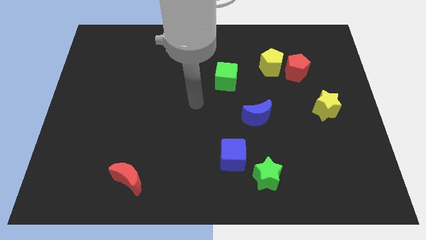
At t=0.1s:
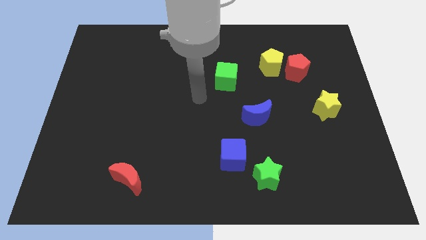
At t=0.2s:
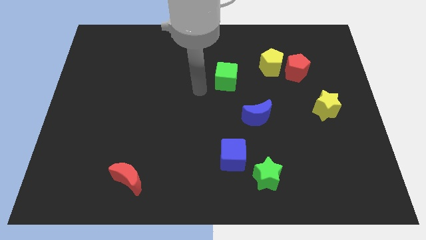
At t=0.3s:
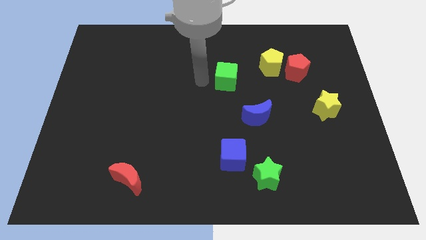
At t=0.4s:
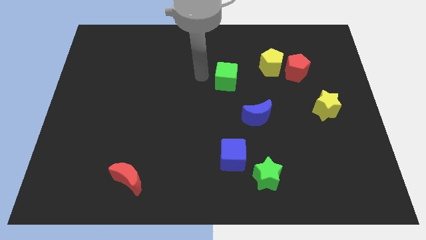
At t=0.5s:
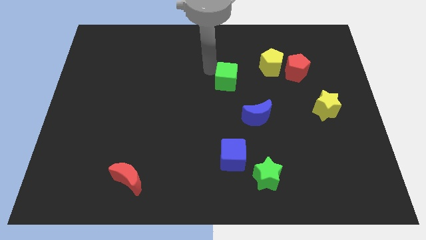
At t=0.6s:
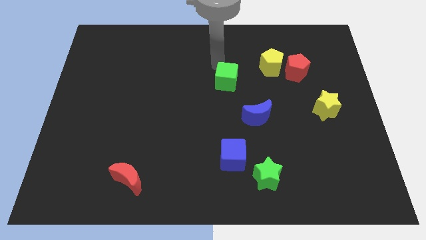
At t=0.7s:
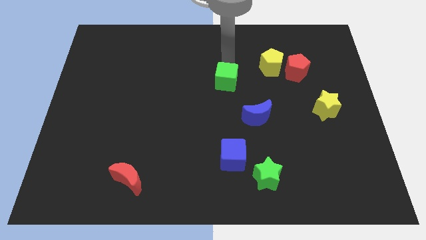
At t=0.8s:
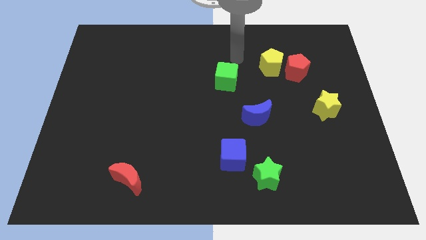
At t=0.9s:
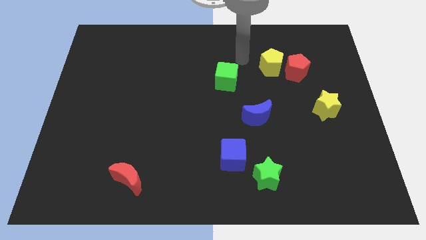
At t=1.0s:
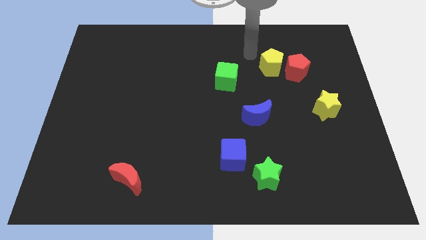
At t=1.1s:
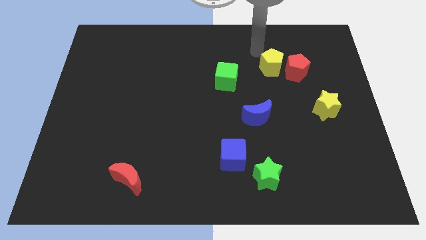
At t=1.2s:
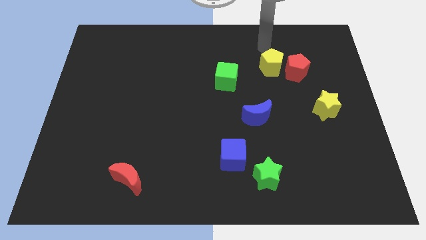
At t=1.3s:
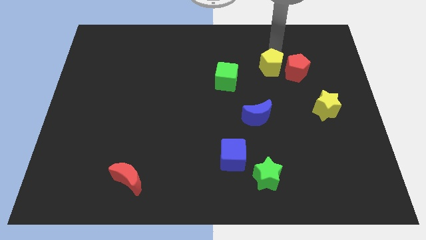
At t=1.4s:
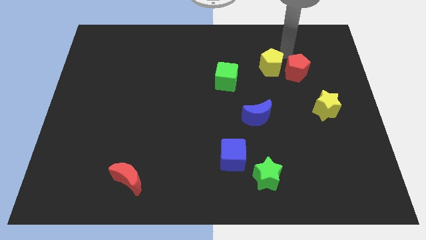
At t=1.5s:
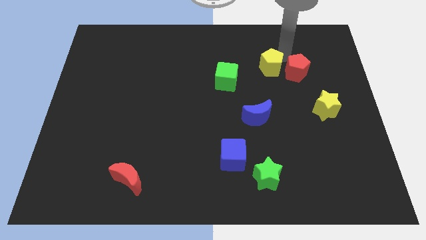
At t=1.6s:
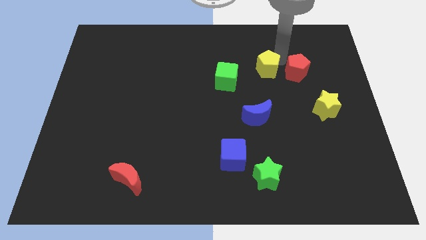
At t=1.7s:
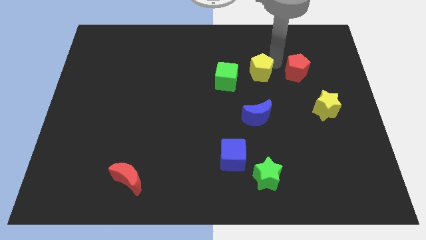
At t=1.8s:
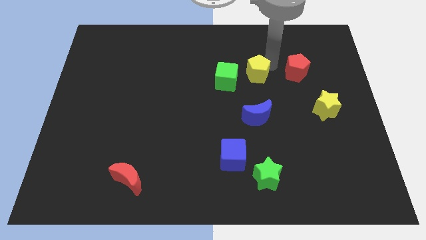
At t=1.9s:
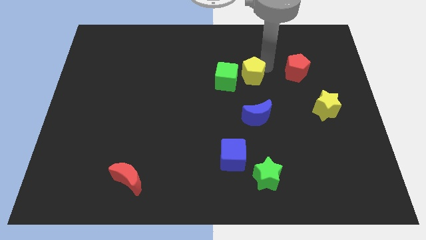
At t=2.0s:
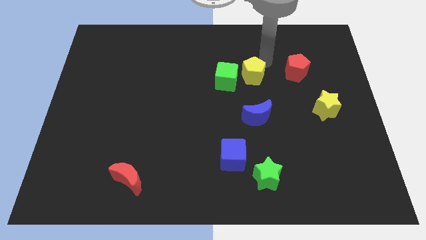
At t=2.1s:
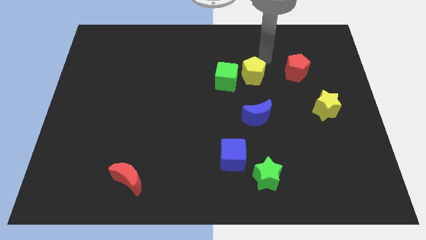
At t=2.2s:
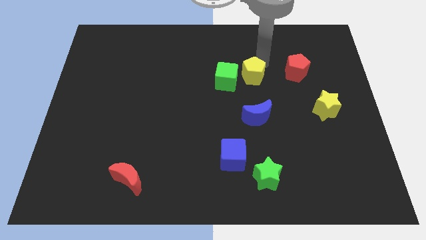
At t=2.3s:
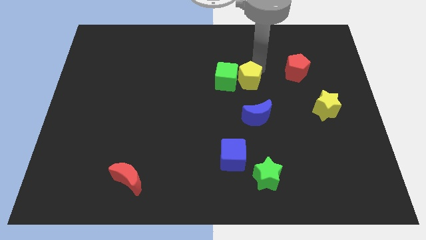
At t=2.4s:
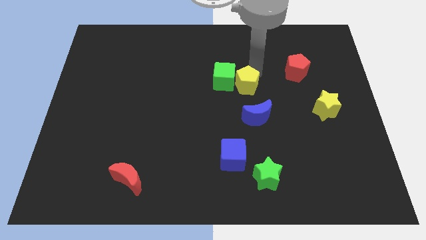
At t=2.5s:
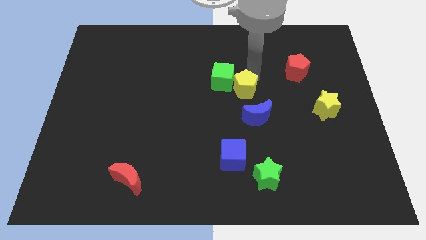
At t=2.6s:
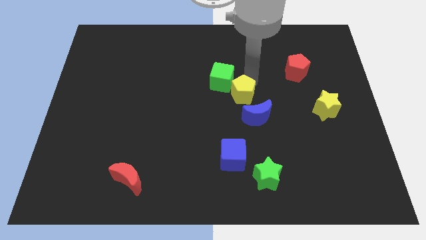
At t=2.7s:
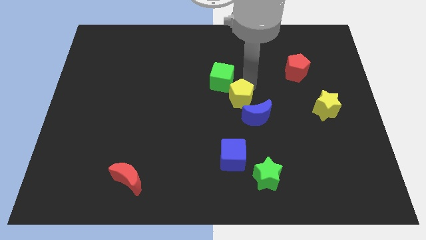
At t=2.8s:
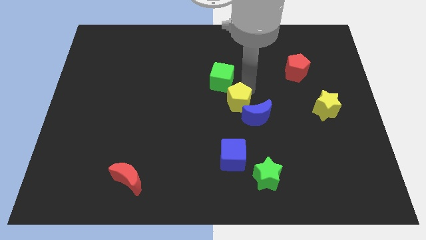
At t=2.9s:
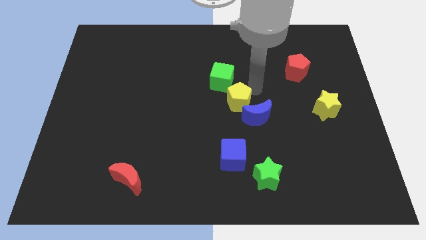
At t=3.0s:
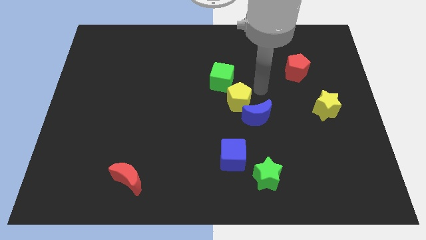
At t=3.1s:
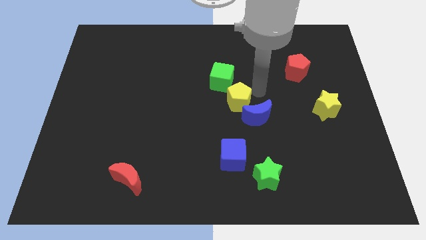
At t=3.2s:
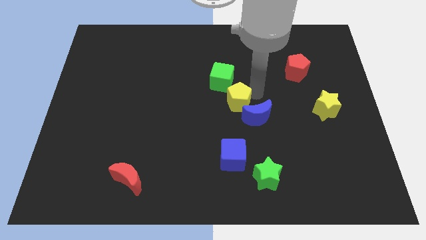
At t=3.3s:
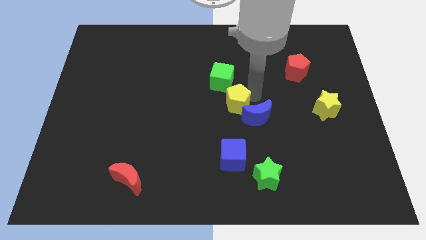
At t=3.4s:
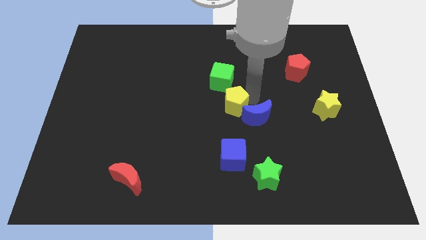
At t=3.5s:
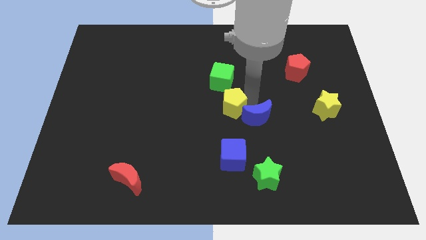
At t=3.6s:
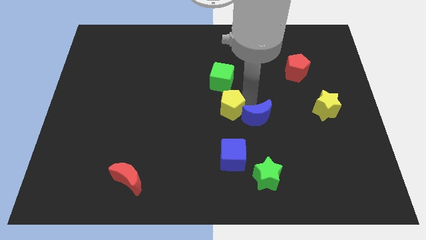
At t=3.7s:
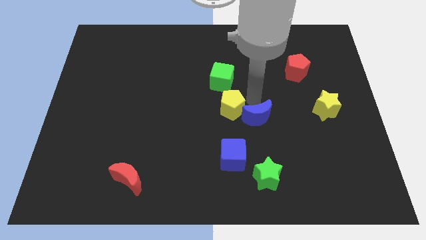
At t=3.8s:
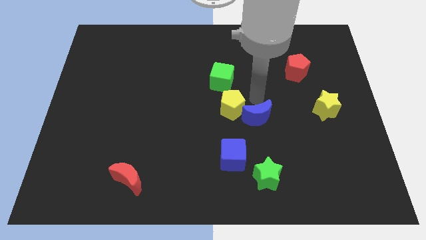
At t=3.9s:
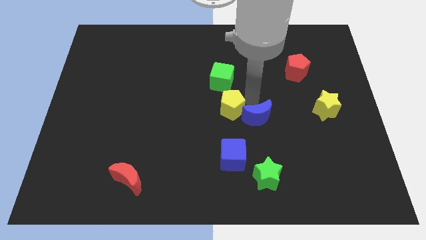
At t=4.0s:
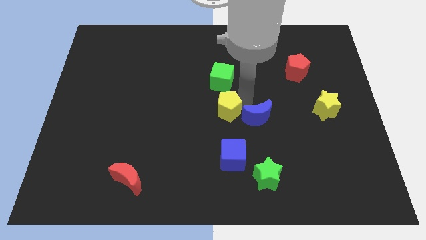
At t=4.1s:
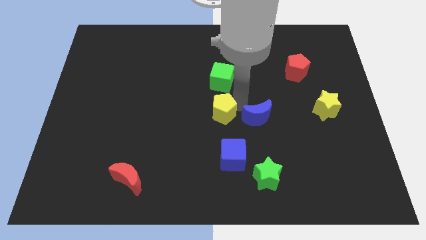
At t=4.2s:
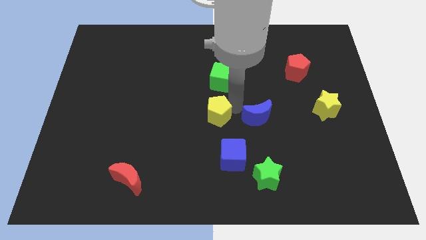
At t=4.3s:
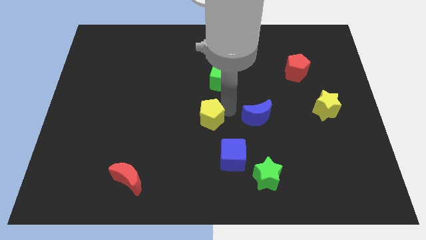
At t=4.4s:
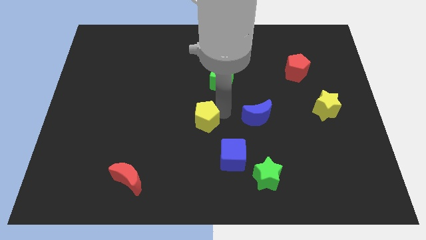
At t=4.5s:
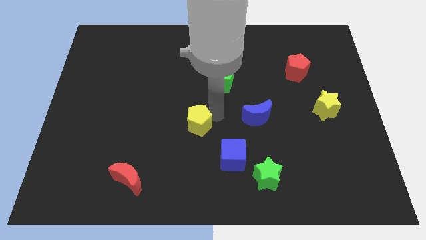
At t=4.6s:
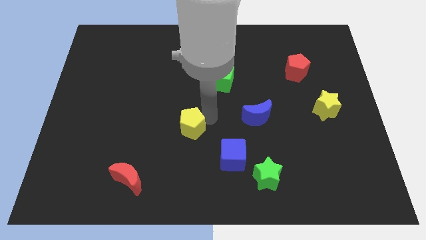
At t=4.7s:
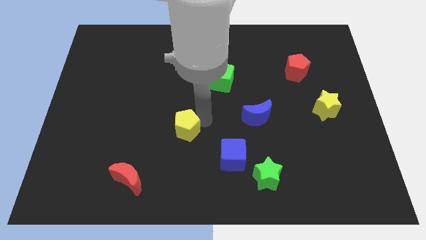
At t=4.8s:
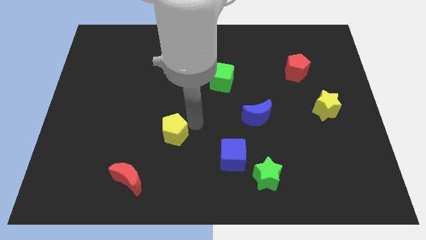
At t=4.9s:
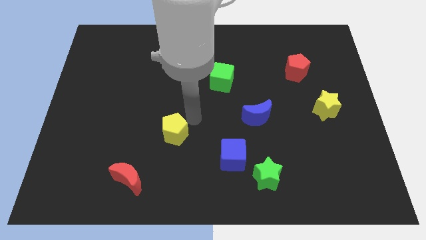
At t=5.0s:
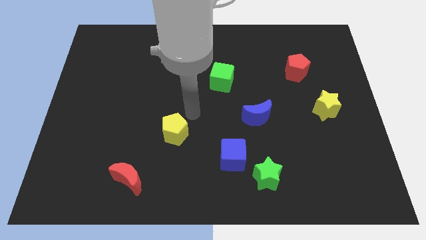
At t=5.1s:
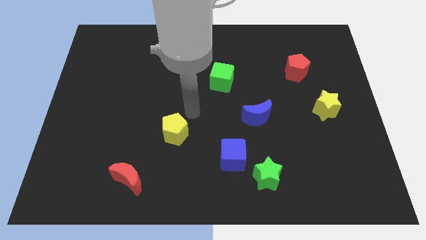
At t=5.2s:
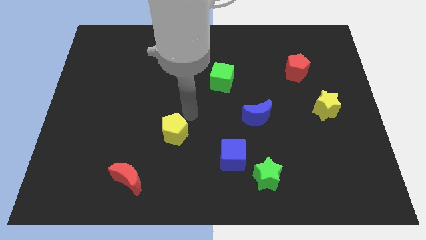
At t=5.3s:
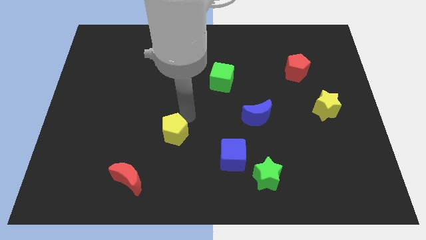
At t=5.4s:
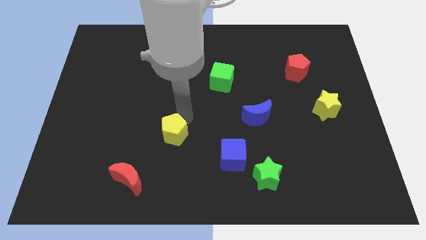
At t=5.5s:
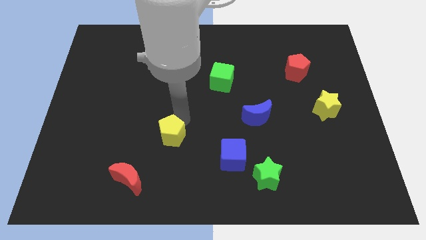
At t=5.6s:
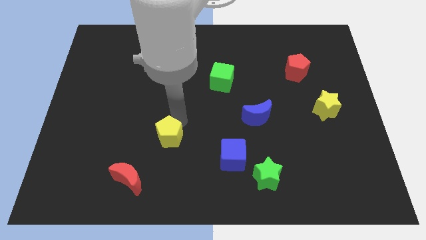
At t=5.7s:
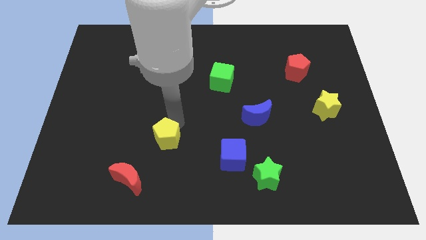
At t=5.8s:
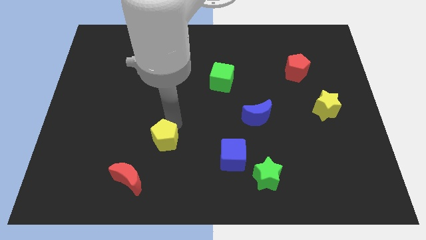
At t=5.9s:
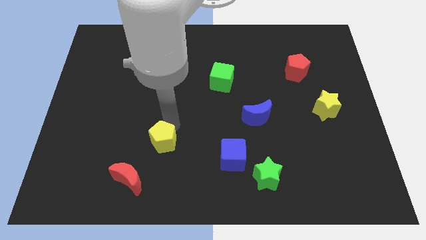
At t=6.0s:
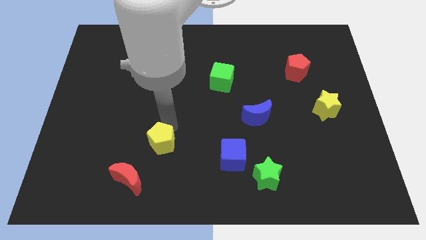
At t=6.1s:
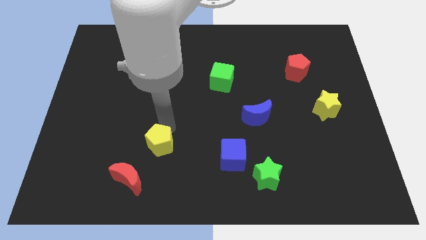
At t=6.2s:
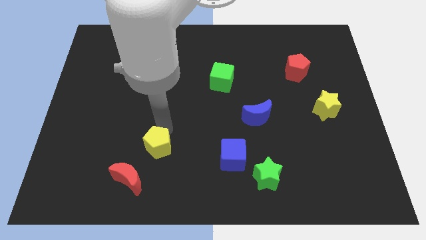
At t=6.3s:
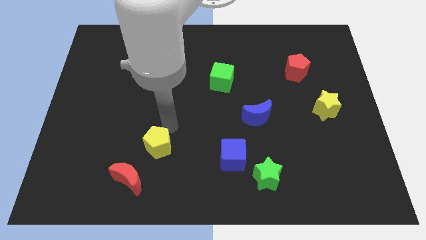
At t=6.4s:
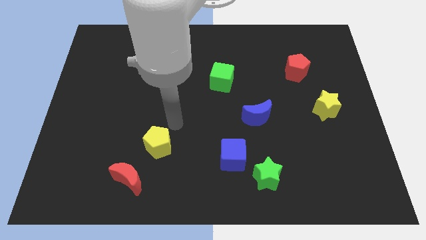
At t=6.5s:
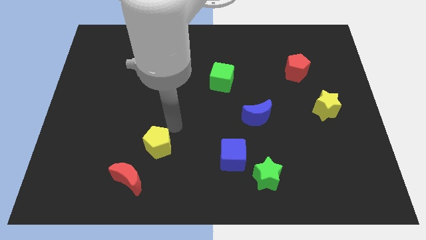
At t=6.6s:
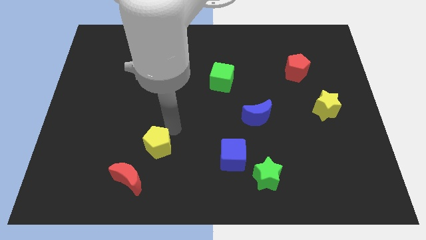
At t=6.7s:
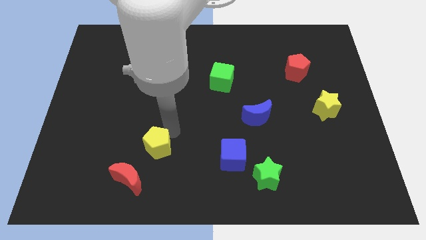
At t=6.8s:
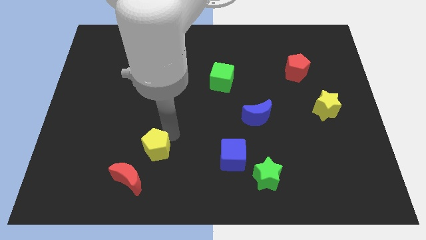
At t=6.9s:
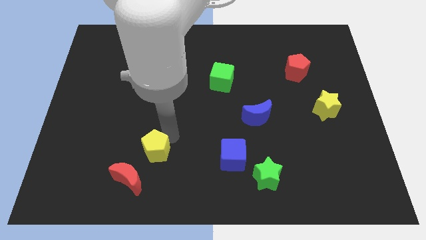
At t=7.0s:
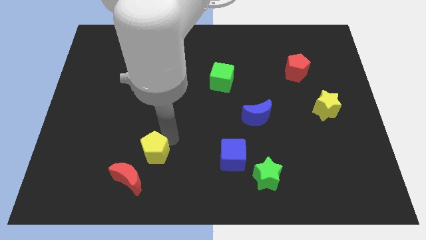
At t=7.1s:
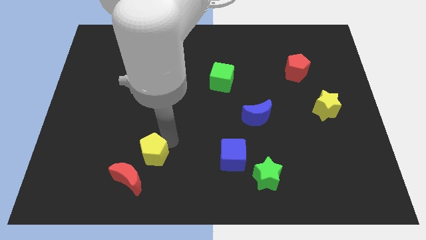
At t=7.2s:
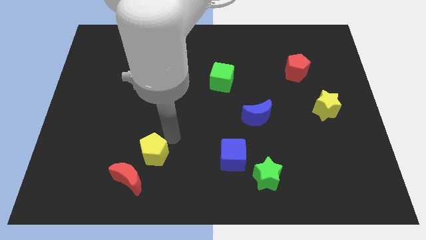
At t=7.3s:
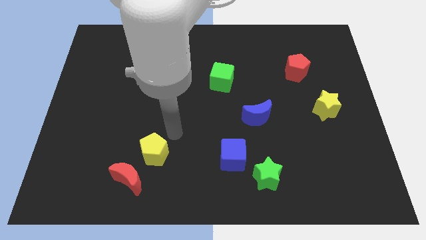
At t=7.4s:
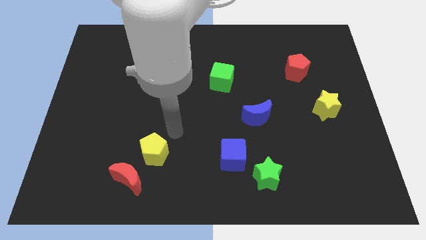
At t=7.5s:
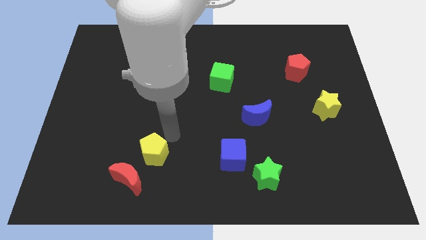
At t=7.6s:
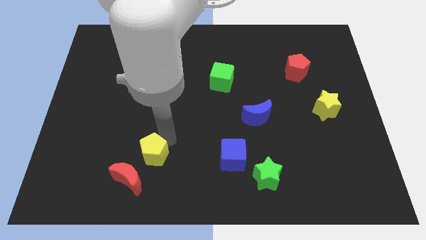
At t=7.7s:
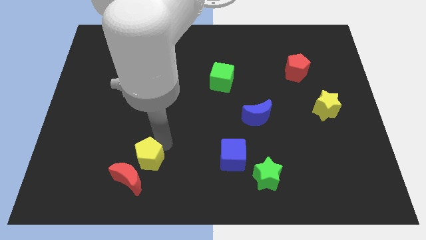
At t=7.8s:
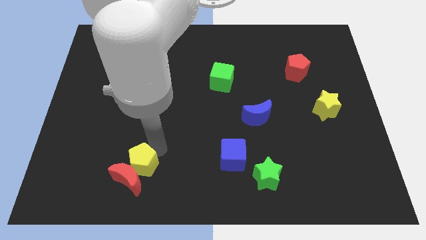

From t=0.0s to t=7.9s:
slide the yellow pentagon to the red moon
